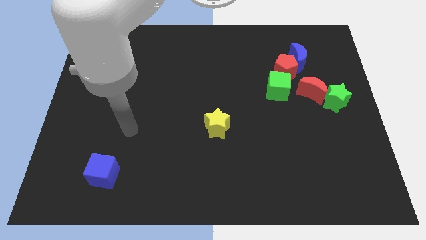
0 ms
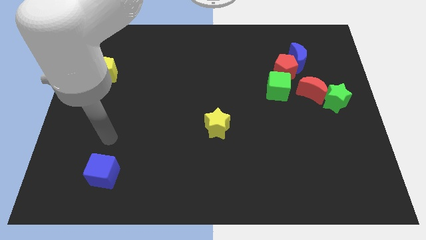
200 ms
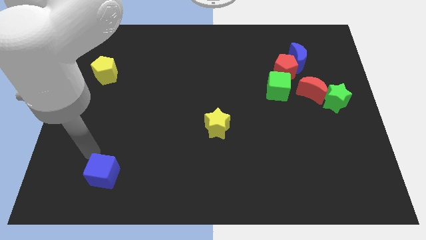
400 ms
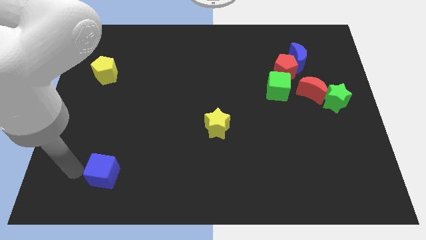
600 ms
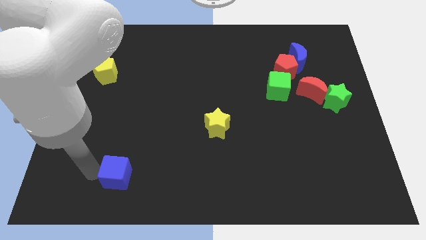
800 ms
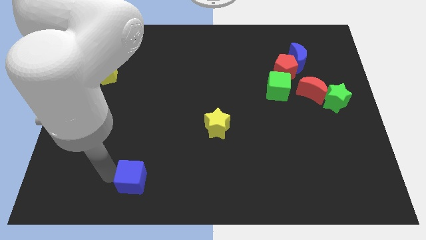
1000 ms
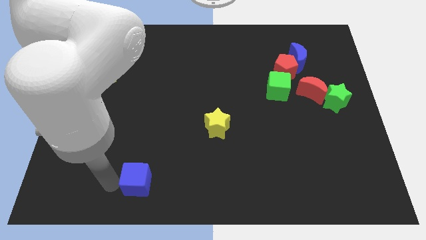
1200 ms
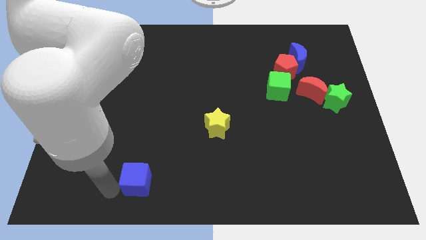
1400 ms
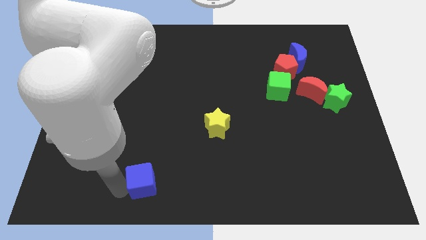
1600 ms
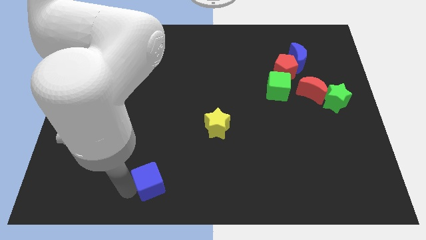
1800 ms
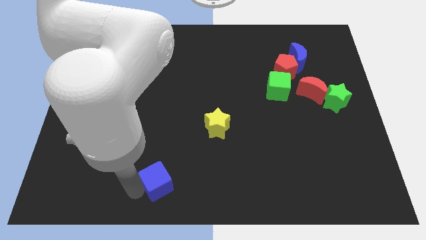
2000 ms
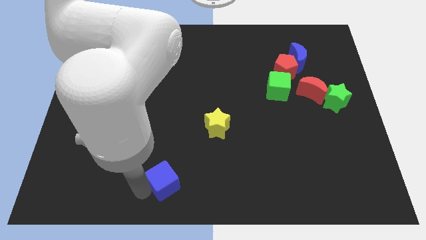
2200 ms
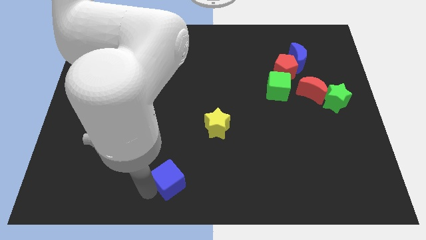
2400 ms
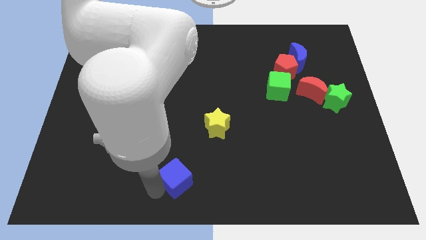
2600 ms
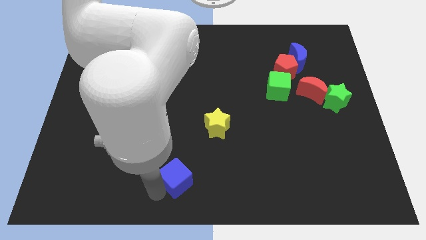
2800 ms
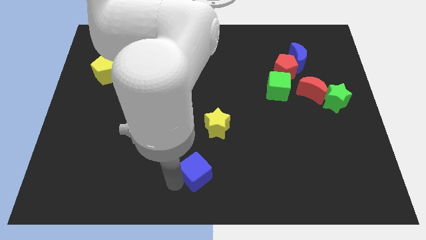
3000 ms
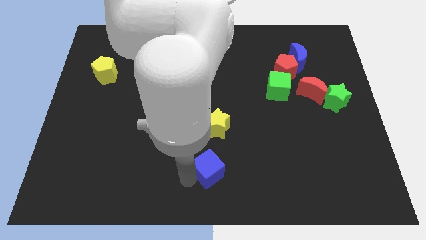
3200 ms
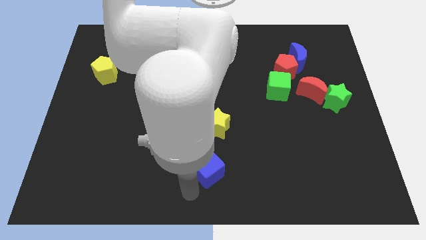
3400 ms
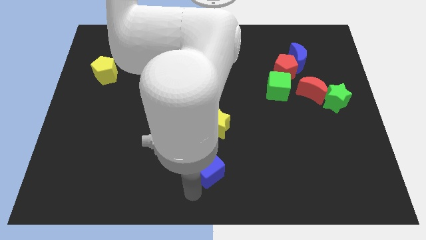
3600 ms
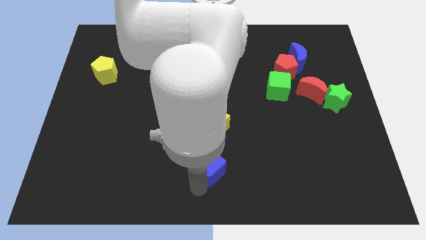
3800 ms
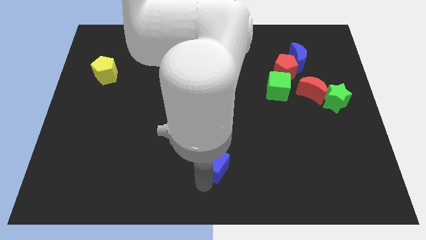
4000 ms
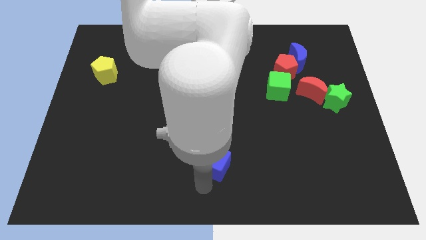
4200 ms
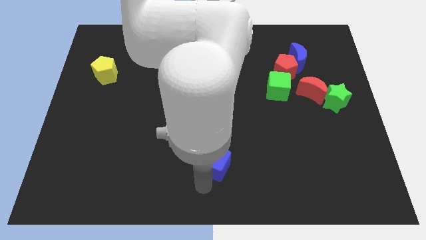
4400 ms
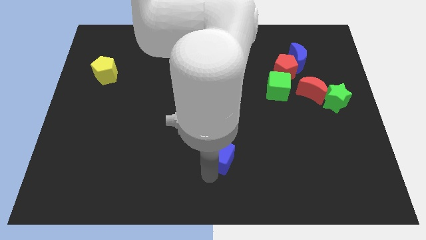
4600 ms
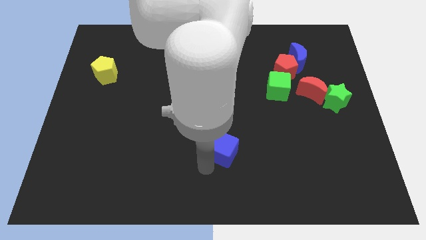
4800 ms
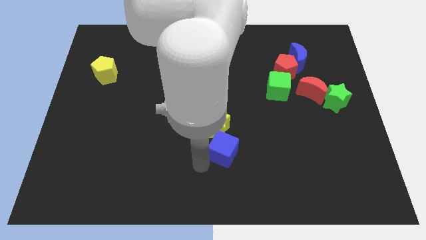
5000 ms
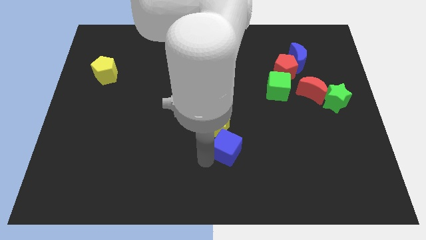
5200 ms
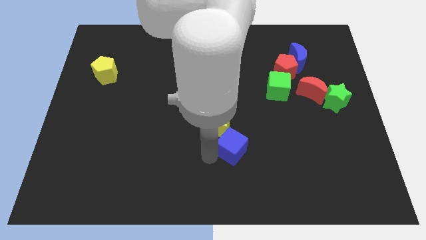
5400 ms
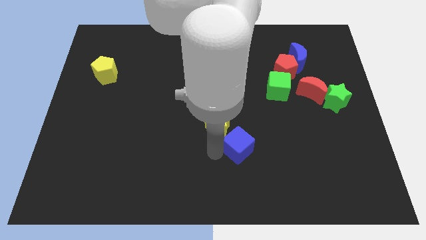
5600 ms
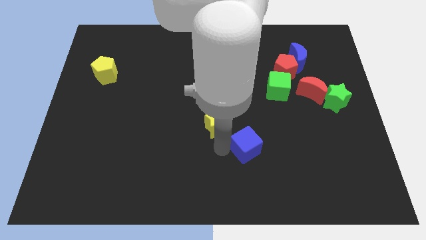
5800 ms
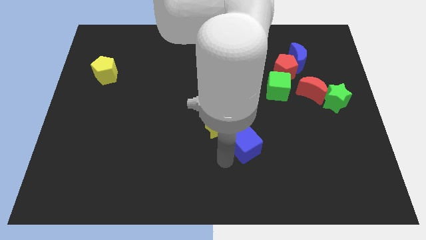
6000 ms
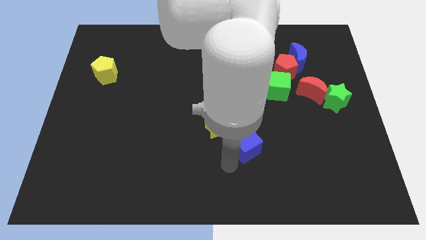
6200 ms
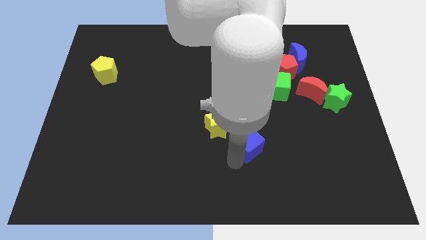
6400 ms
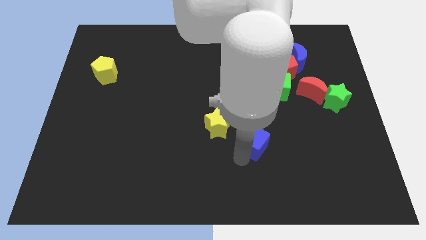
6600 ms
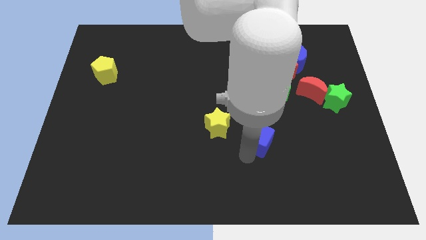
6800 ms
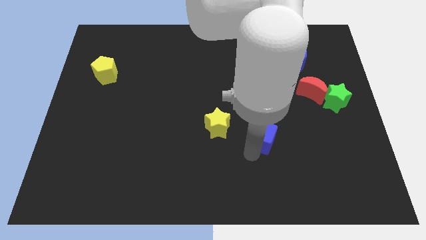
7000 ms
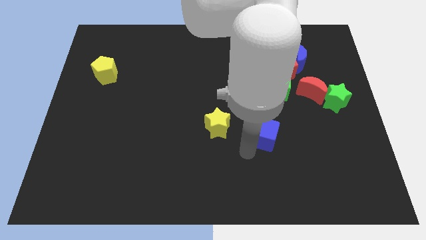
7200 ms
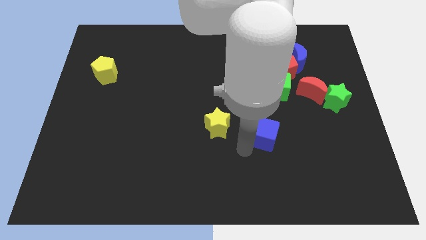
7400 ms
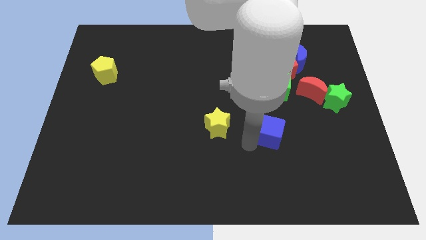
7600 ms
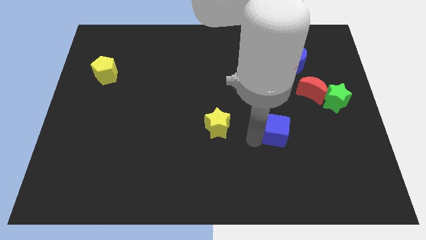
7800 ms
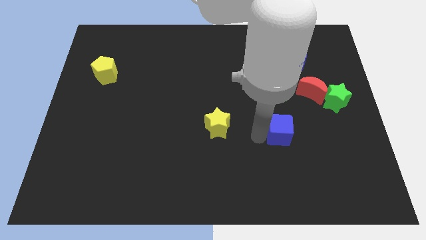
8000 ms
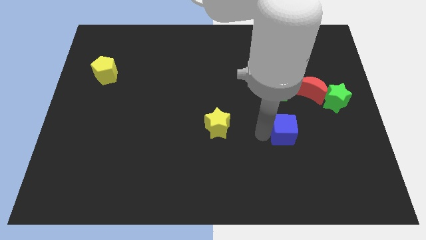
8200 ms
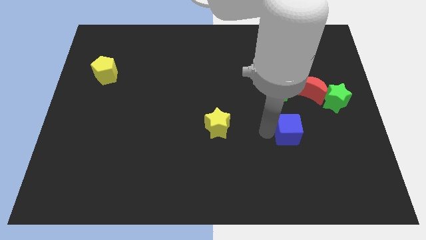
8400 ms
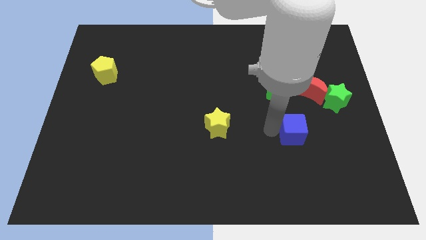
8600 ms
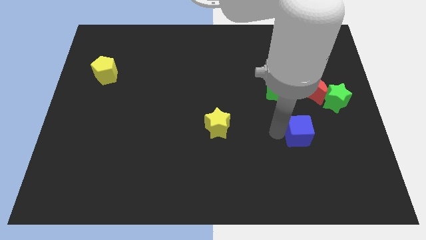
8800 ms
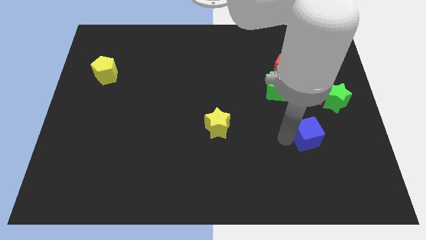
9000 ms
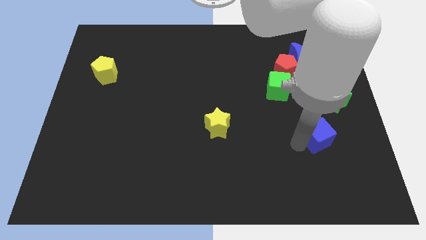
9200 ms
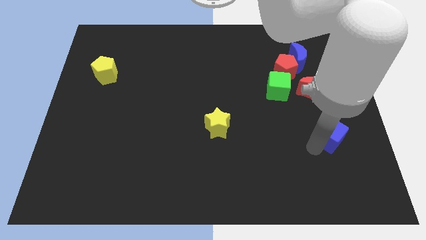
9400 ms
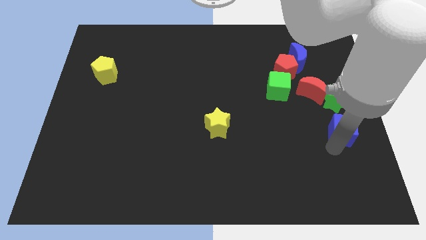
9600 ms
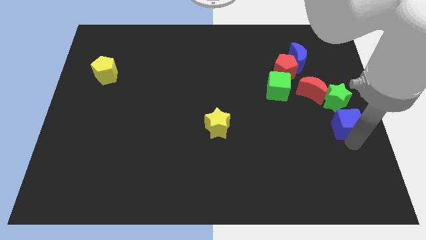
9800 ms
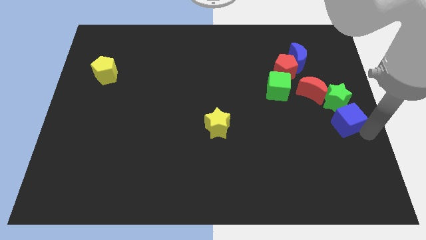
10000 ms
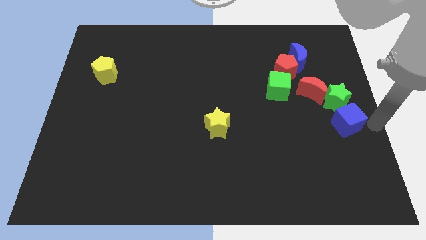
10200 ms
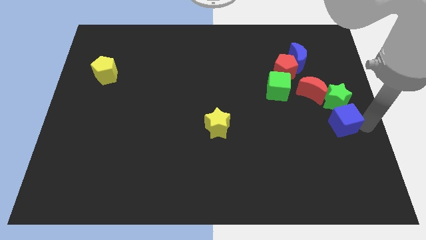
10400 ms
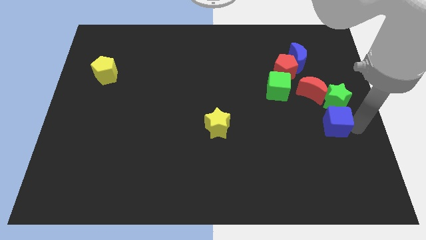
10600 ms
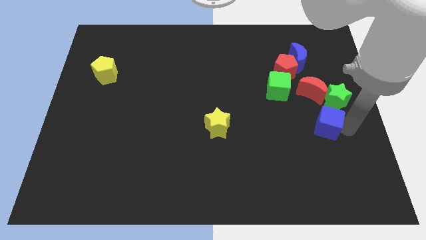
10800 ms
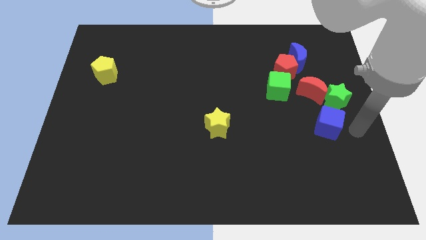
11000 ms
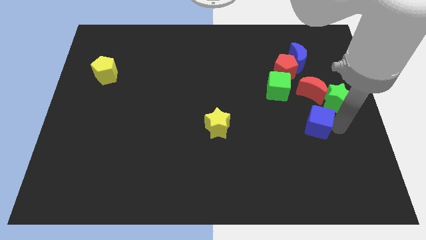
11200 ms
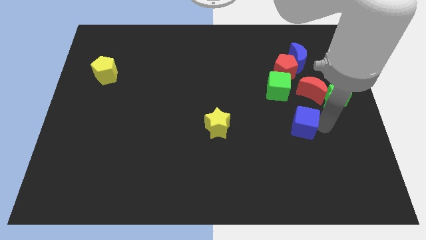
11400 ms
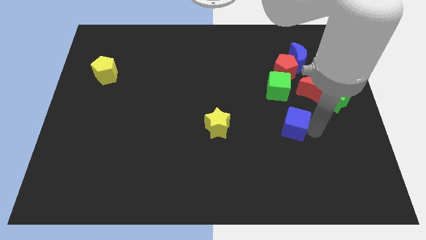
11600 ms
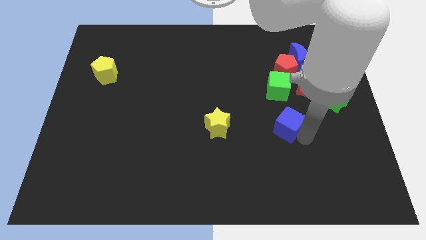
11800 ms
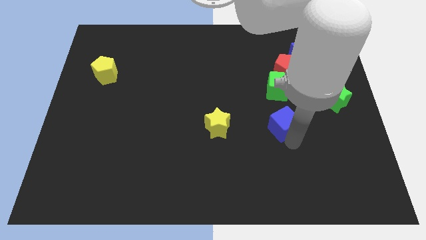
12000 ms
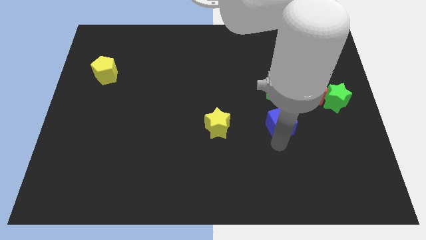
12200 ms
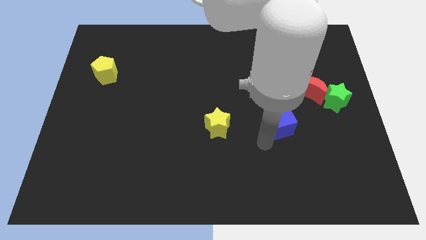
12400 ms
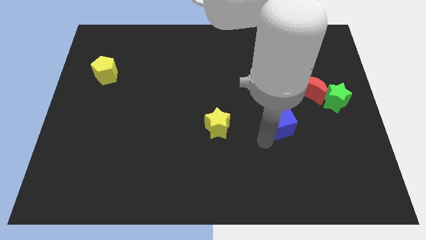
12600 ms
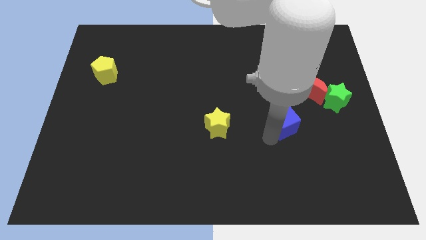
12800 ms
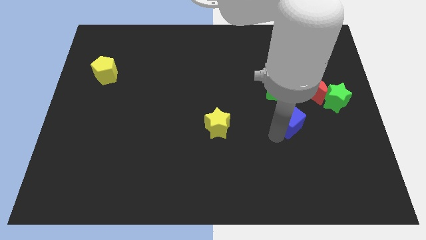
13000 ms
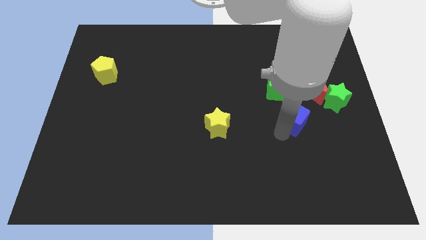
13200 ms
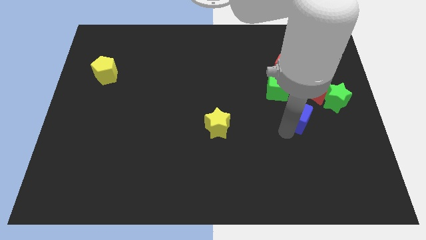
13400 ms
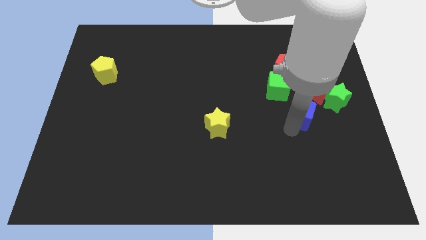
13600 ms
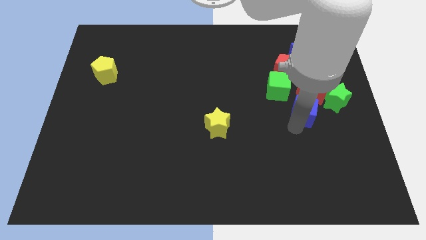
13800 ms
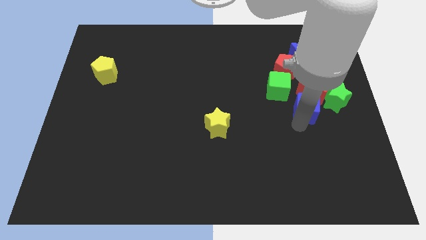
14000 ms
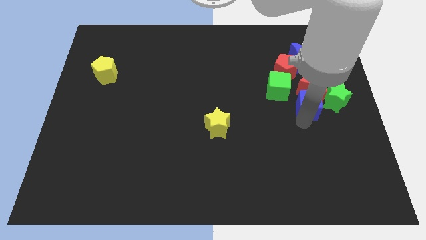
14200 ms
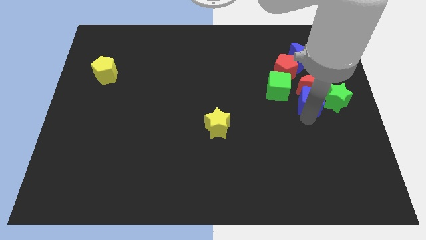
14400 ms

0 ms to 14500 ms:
slide the blue cube next to the green star

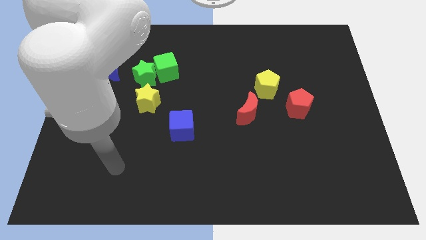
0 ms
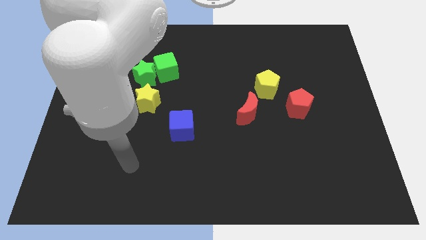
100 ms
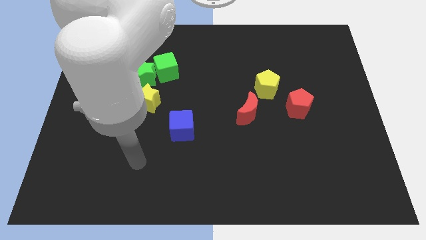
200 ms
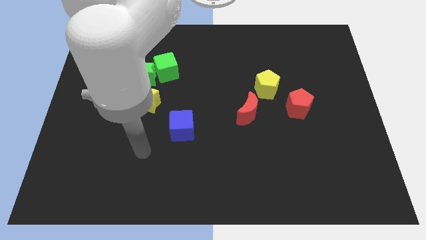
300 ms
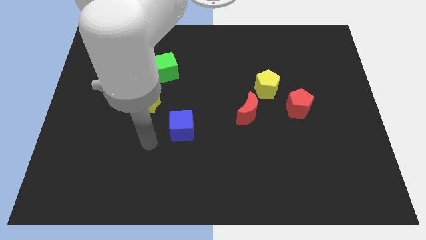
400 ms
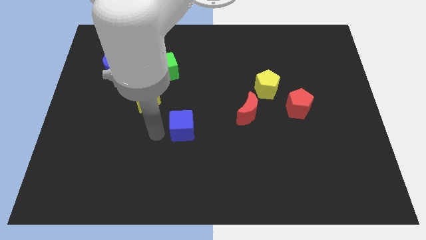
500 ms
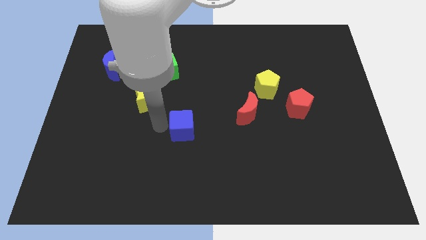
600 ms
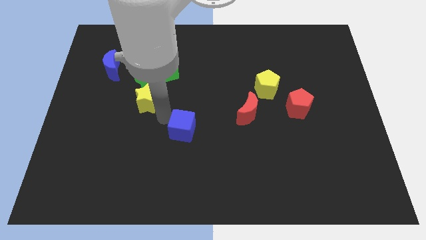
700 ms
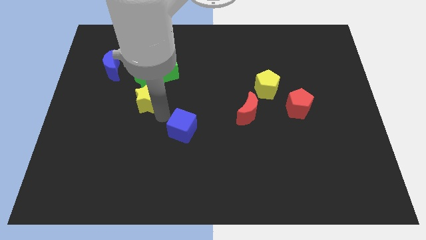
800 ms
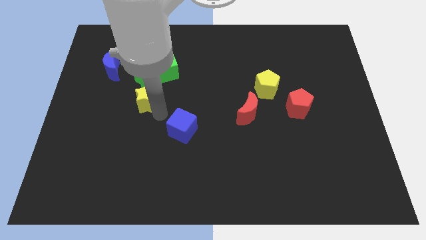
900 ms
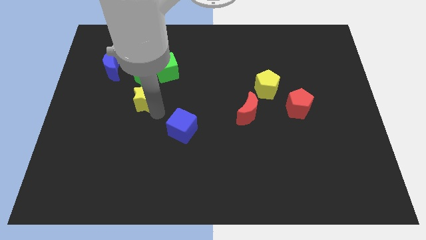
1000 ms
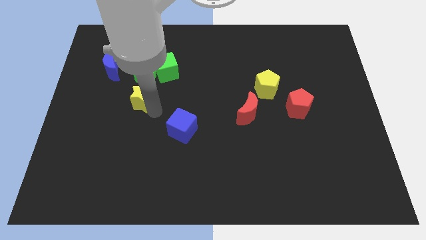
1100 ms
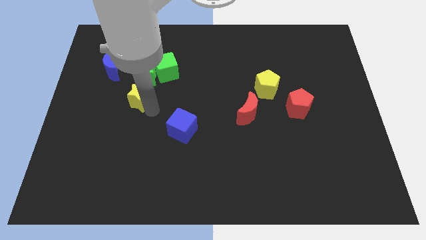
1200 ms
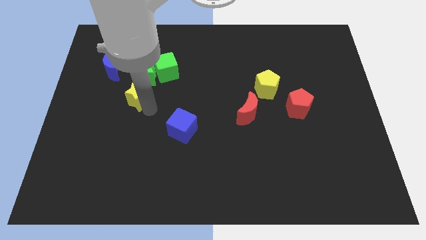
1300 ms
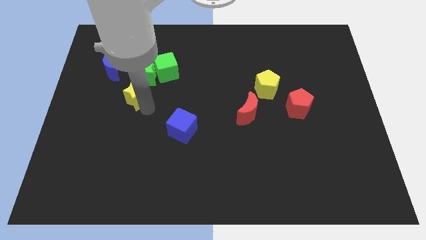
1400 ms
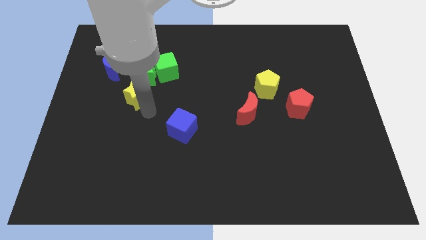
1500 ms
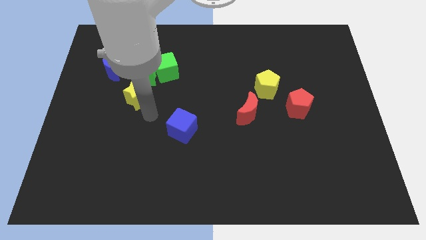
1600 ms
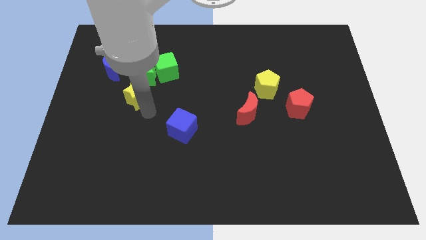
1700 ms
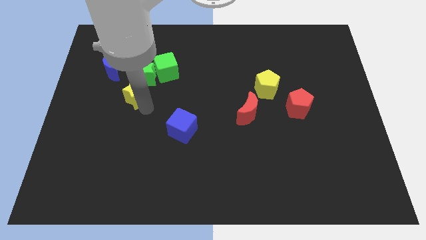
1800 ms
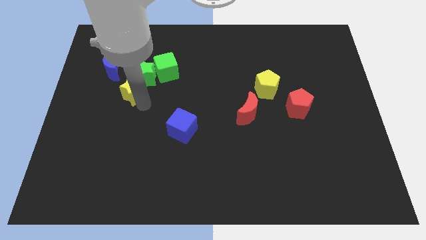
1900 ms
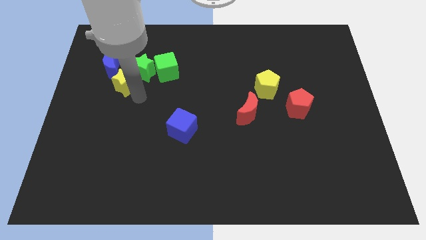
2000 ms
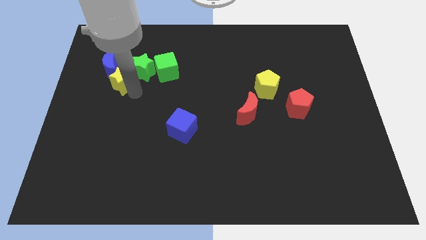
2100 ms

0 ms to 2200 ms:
put the yellow star next to the blue moon
